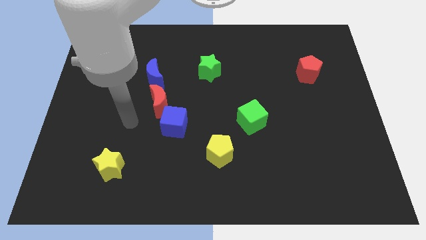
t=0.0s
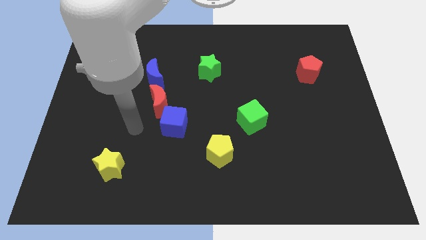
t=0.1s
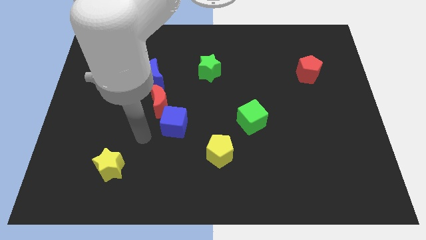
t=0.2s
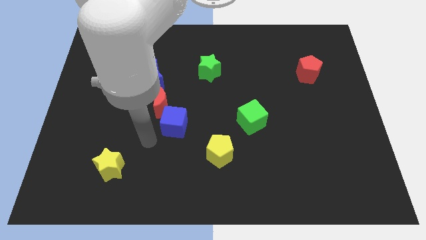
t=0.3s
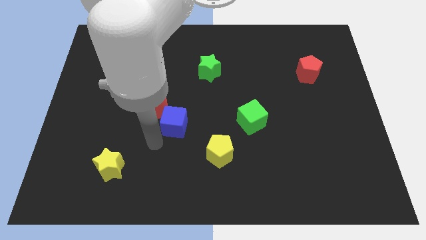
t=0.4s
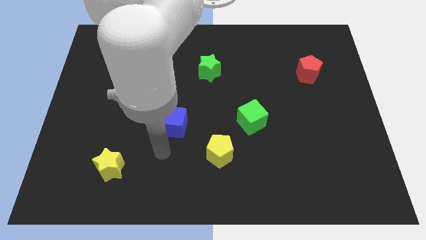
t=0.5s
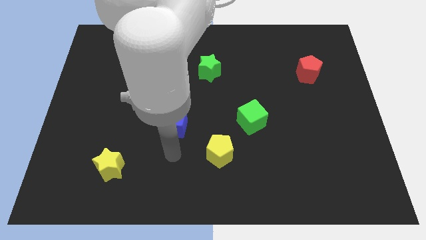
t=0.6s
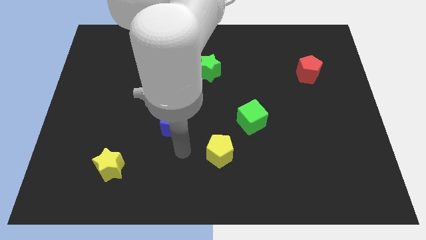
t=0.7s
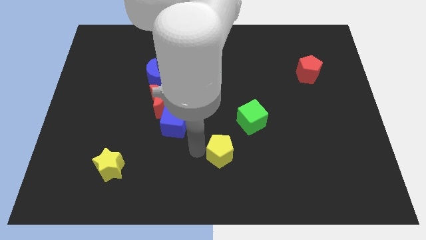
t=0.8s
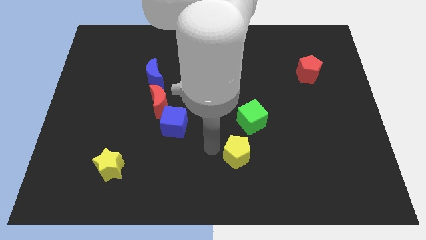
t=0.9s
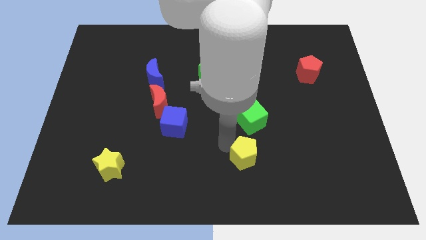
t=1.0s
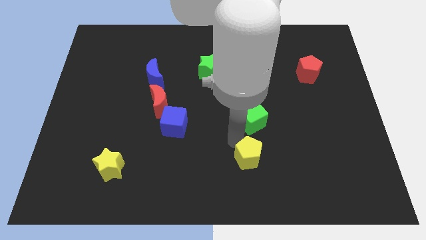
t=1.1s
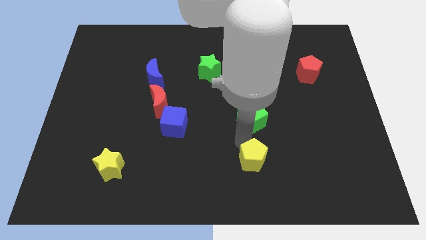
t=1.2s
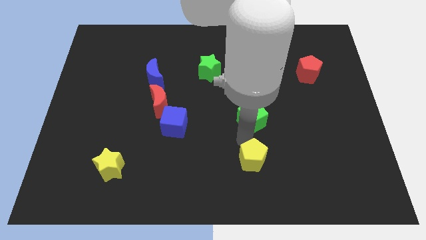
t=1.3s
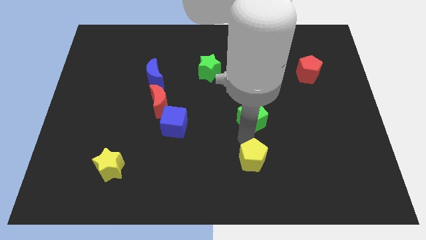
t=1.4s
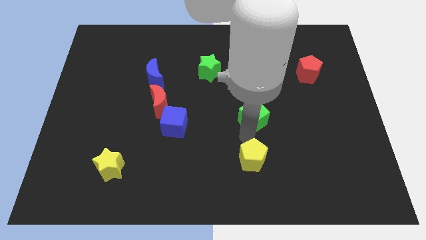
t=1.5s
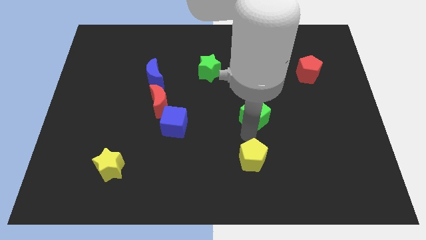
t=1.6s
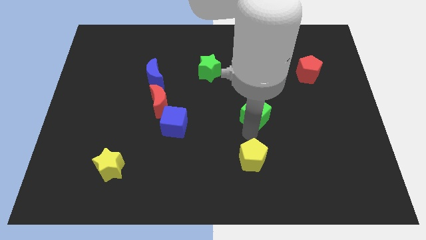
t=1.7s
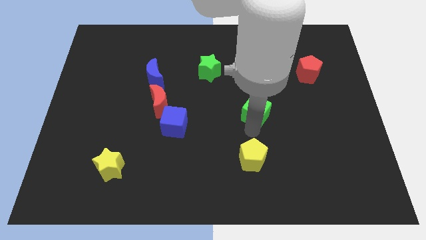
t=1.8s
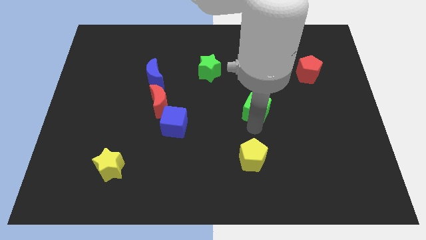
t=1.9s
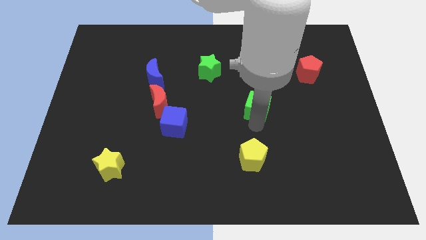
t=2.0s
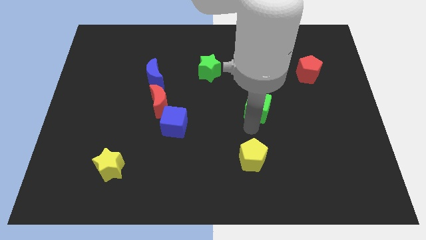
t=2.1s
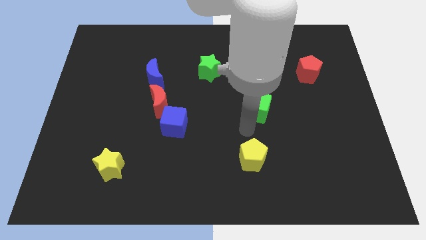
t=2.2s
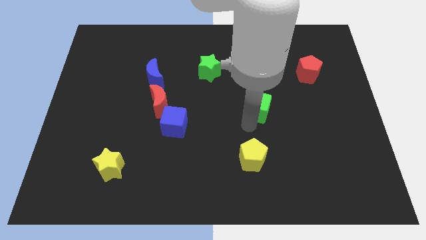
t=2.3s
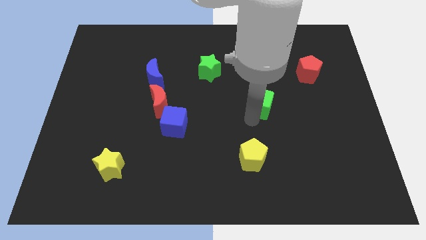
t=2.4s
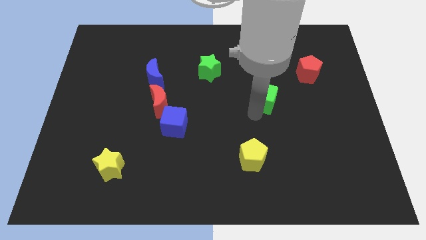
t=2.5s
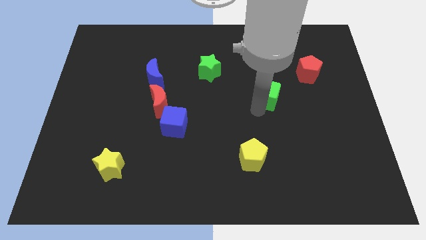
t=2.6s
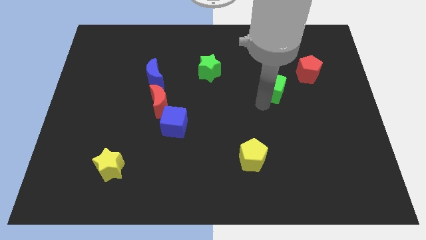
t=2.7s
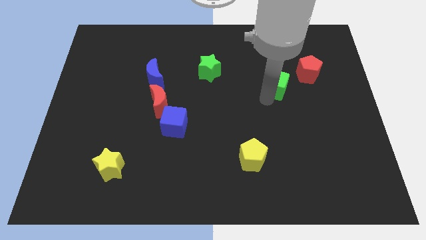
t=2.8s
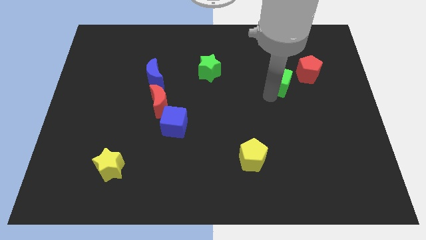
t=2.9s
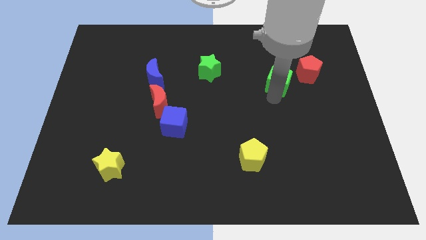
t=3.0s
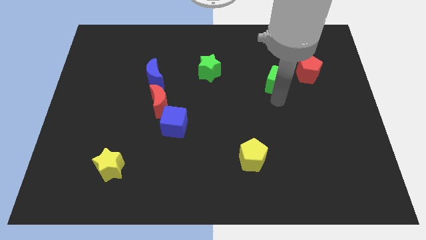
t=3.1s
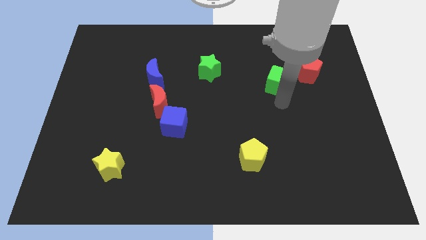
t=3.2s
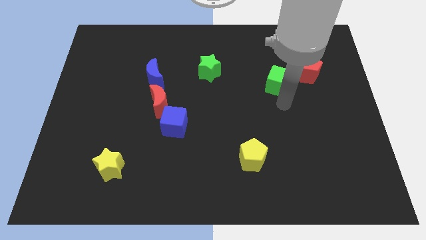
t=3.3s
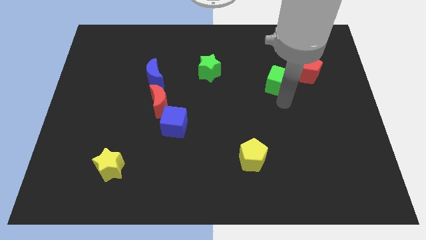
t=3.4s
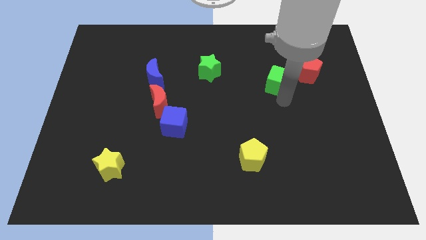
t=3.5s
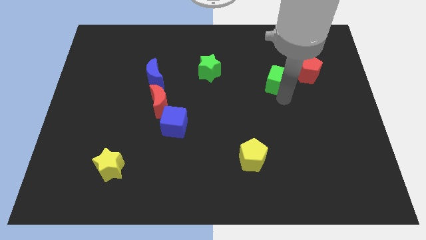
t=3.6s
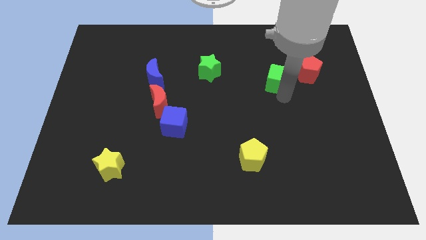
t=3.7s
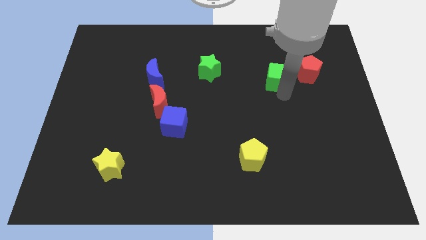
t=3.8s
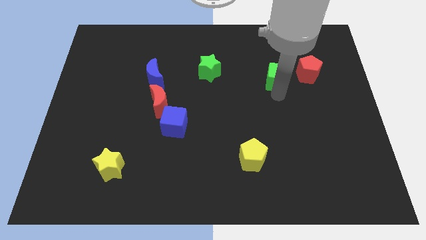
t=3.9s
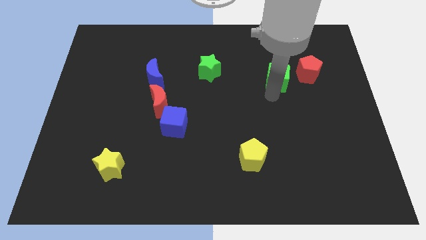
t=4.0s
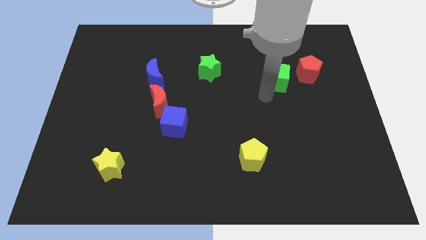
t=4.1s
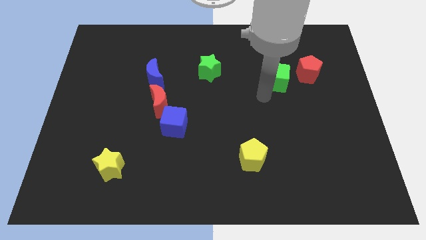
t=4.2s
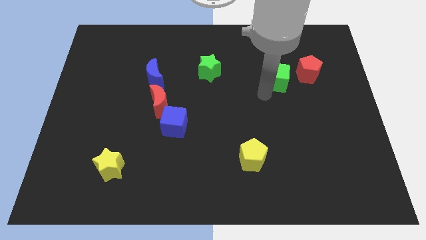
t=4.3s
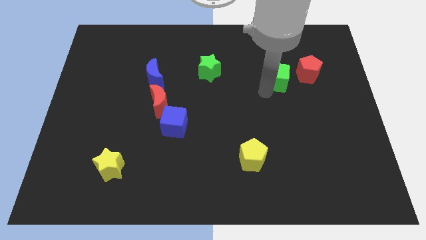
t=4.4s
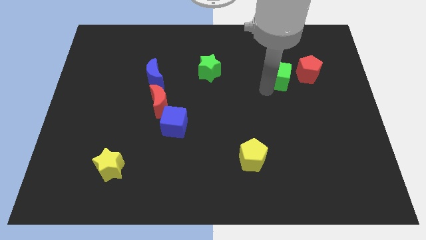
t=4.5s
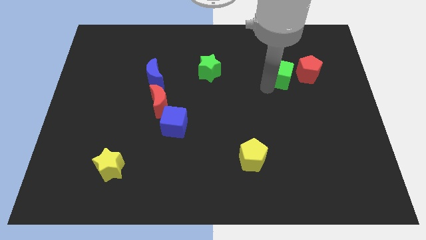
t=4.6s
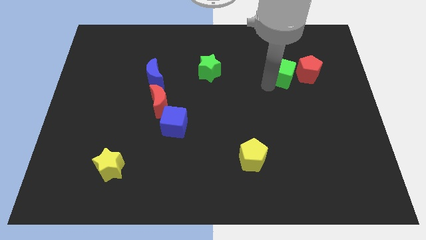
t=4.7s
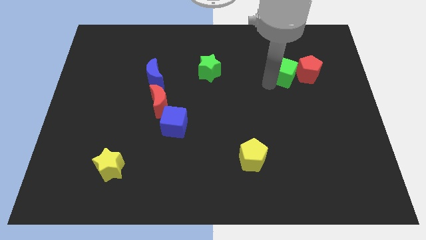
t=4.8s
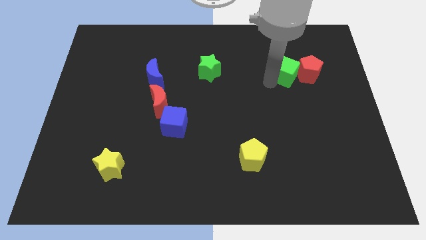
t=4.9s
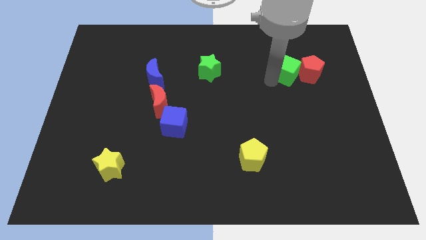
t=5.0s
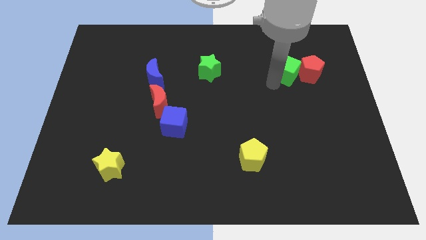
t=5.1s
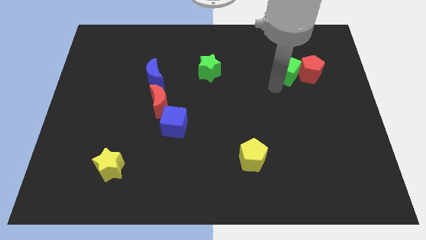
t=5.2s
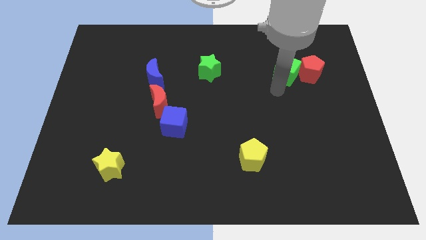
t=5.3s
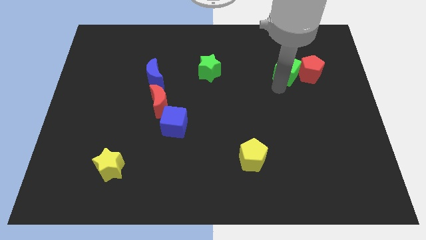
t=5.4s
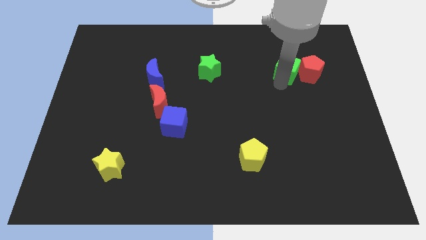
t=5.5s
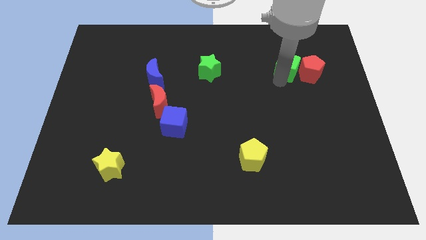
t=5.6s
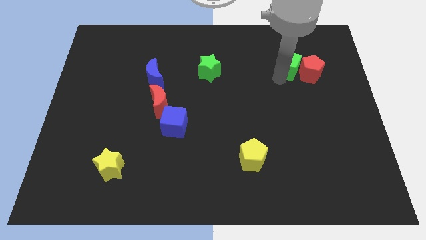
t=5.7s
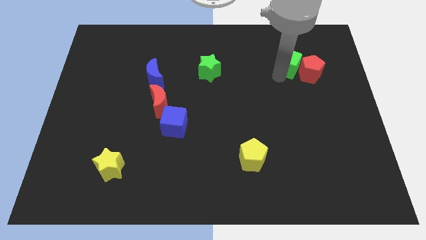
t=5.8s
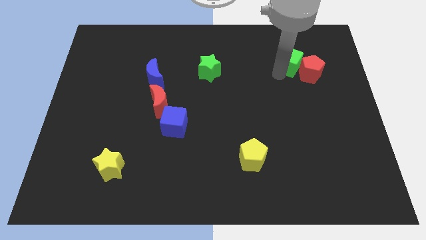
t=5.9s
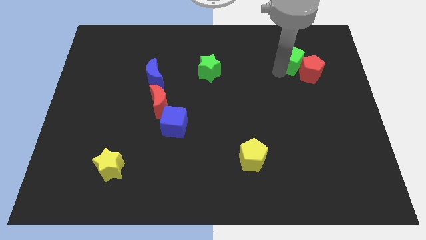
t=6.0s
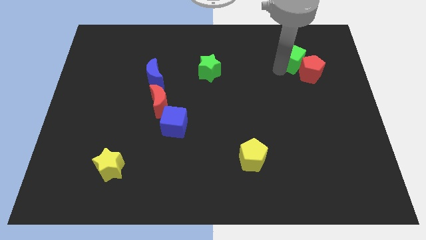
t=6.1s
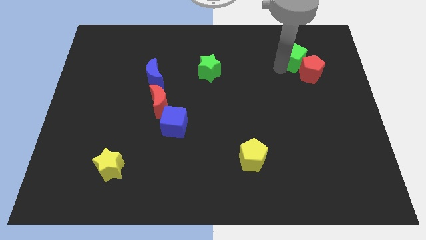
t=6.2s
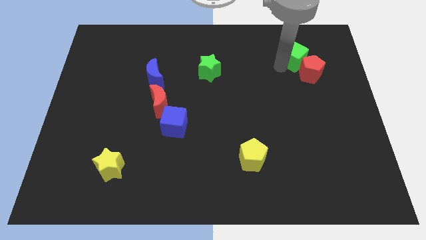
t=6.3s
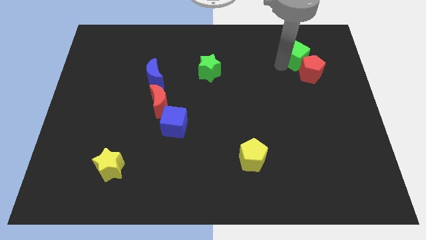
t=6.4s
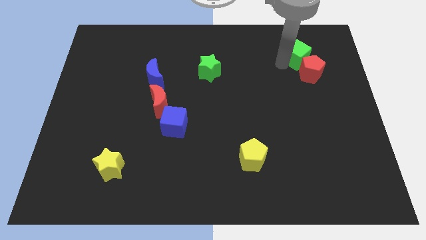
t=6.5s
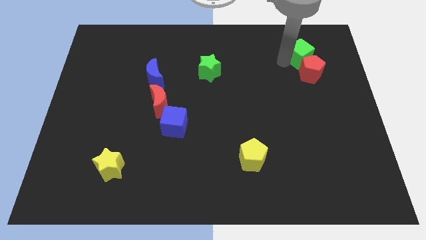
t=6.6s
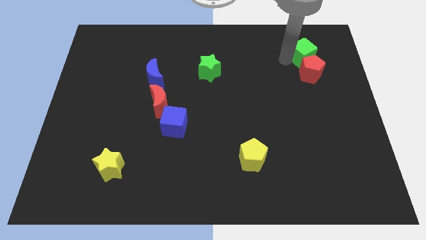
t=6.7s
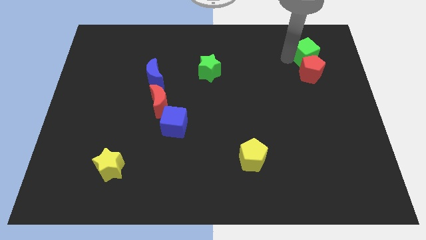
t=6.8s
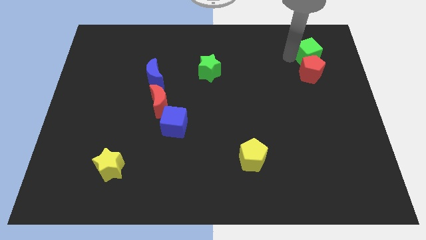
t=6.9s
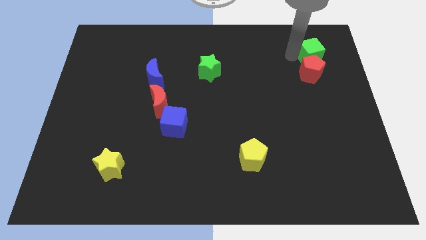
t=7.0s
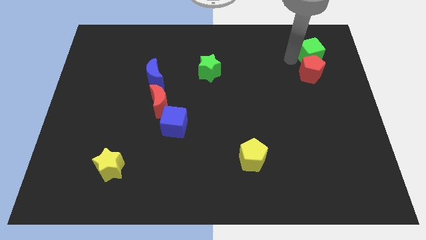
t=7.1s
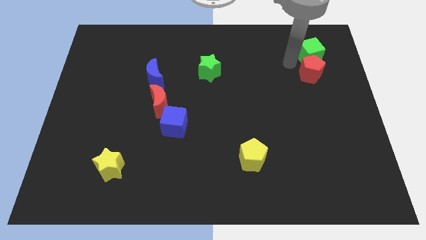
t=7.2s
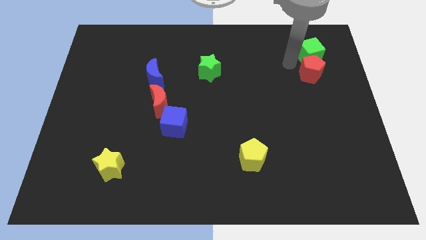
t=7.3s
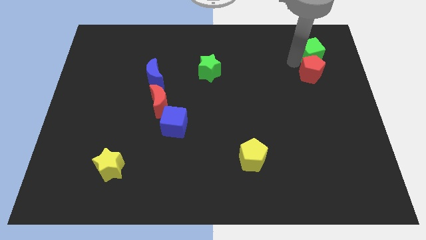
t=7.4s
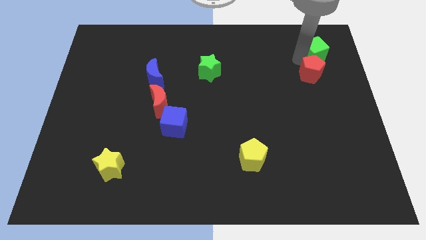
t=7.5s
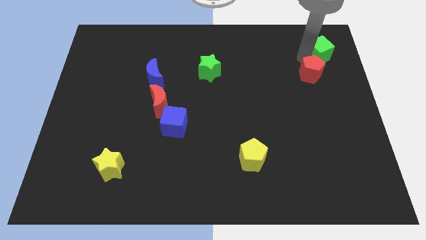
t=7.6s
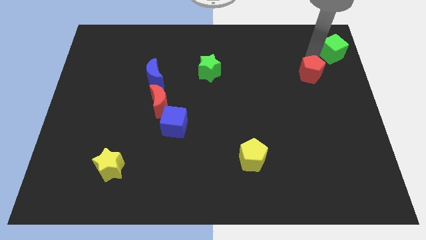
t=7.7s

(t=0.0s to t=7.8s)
put the green cube to the top right
